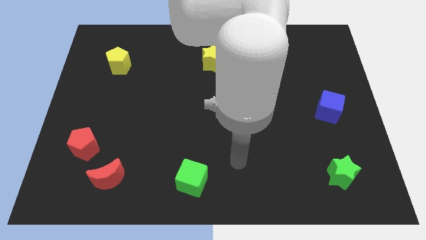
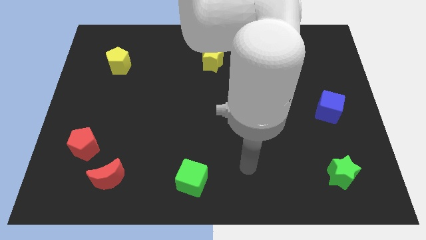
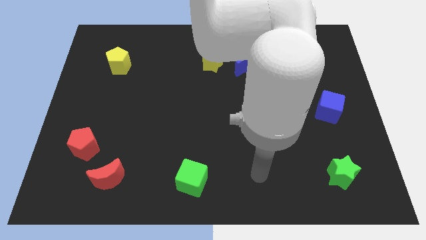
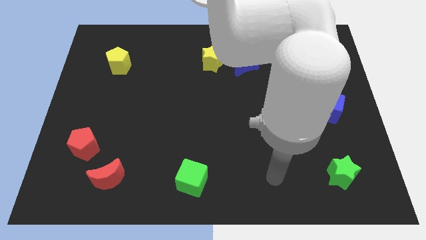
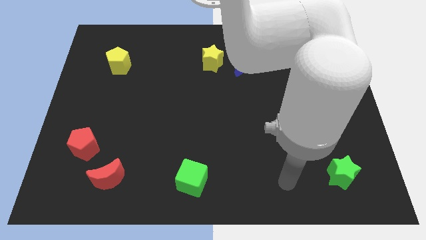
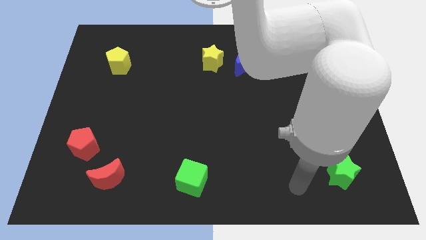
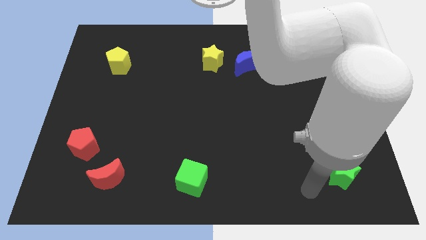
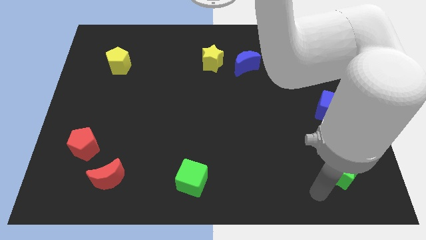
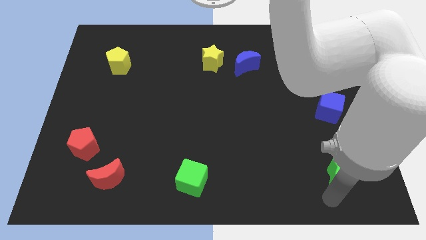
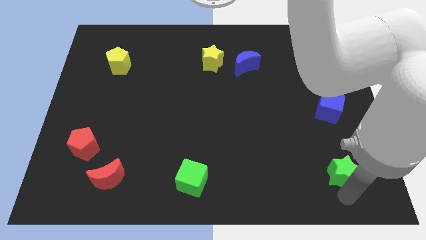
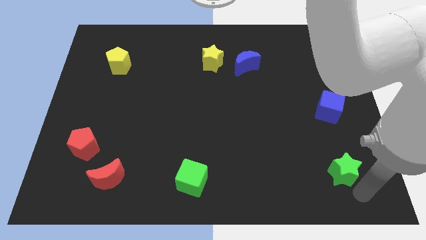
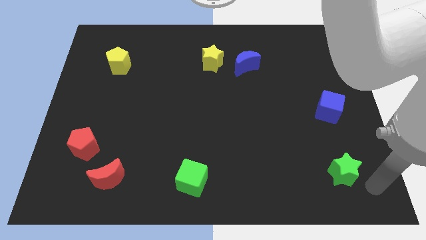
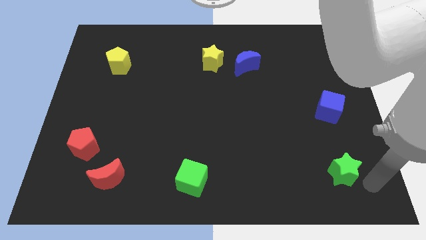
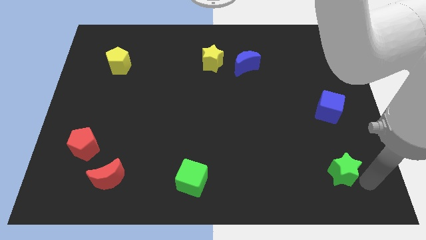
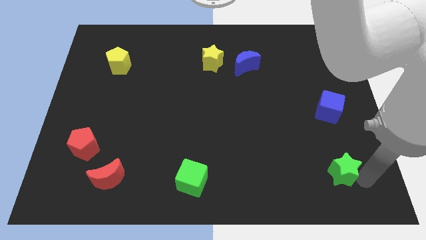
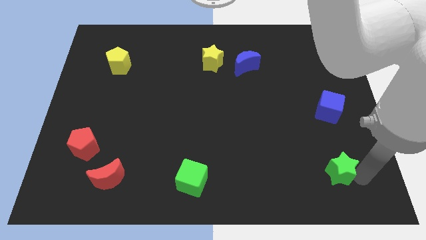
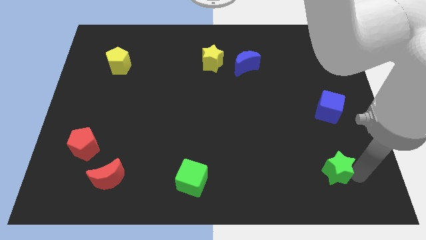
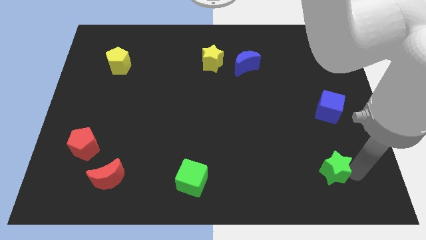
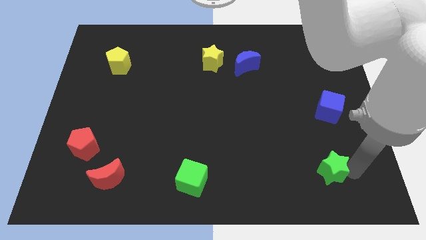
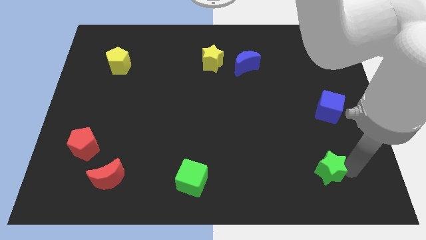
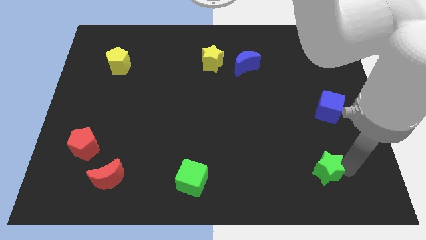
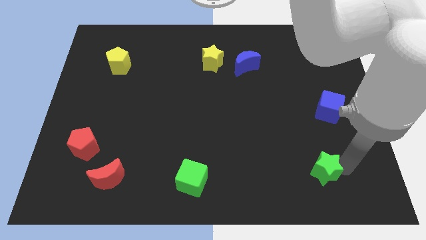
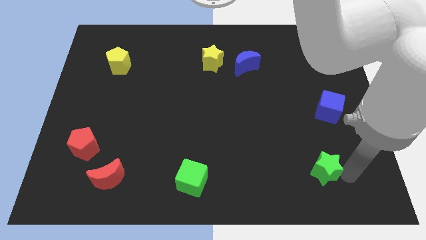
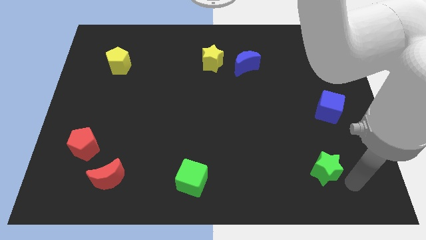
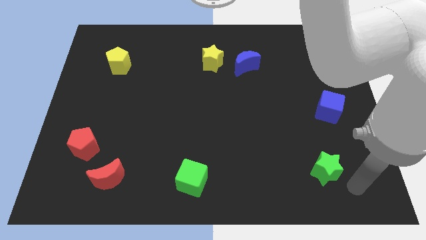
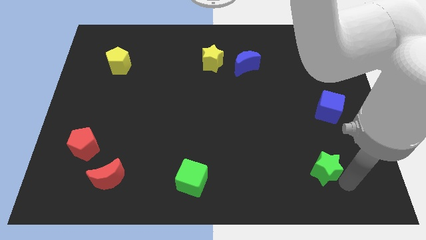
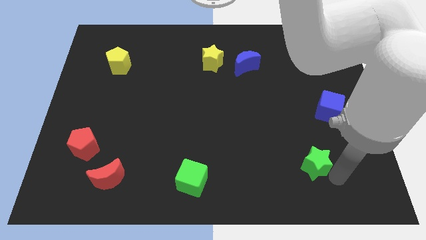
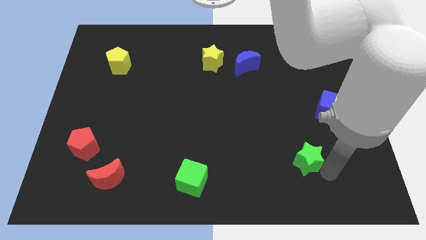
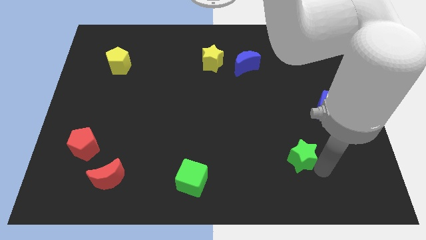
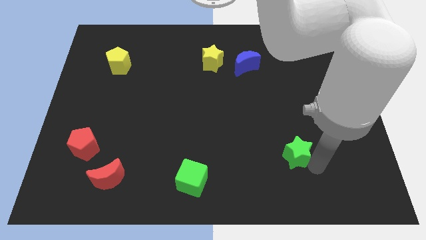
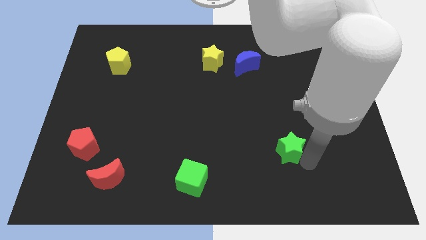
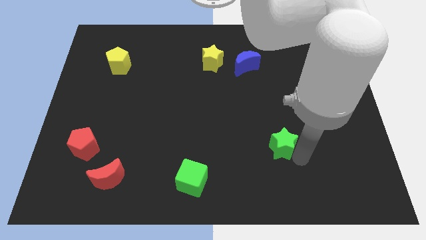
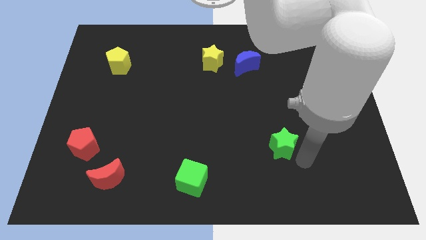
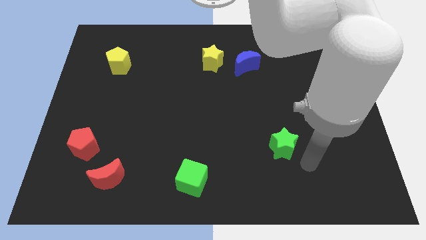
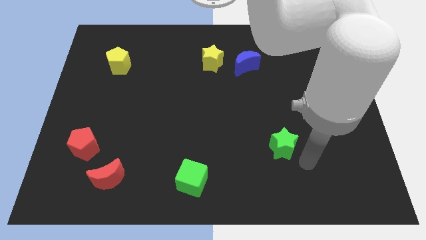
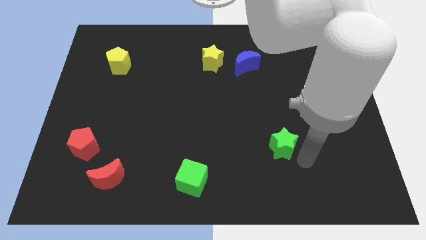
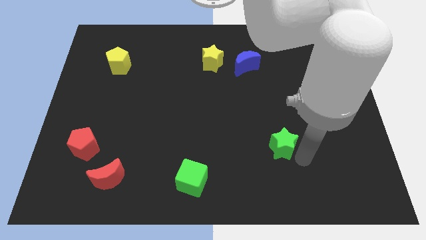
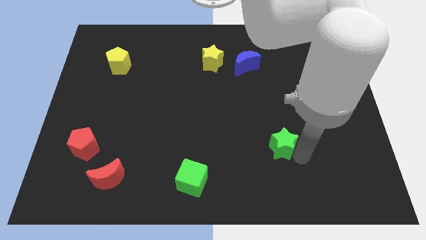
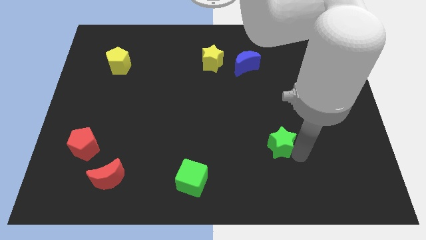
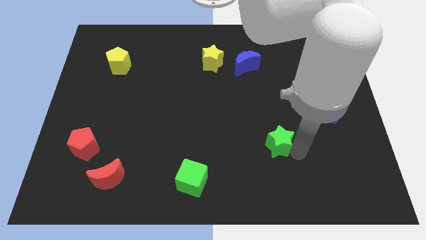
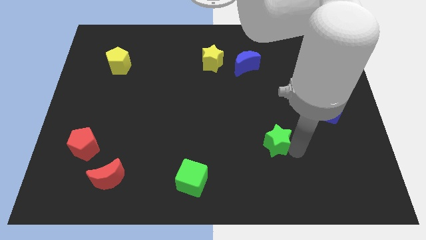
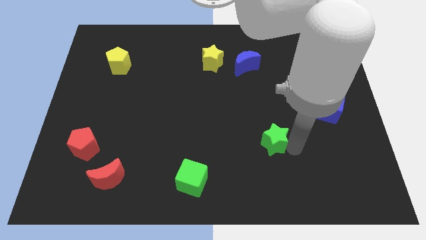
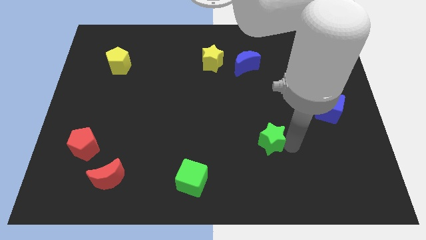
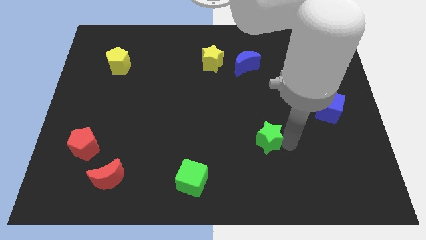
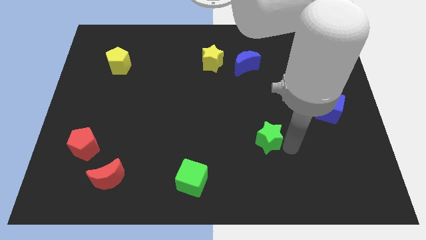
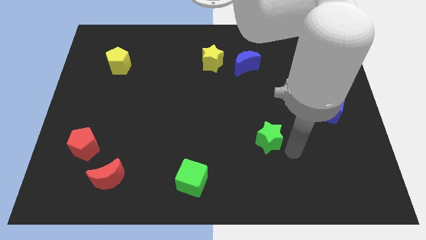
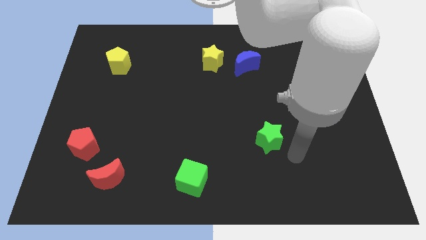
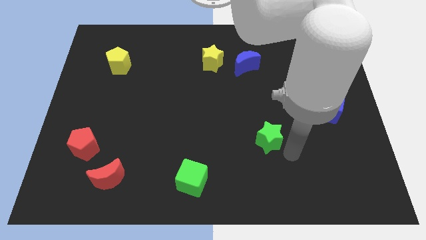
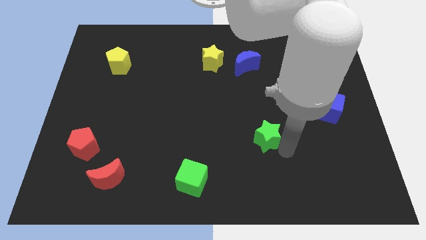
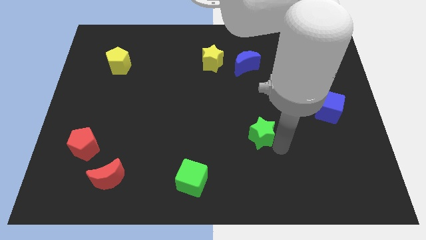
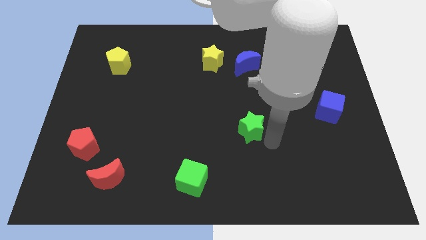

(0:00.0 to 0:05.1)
slide the green star to the center of the board

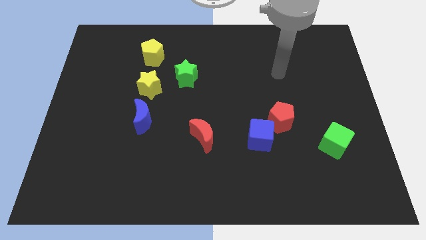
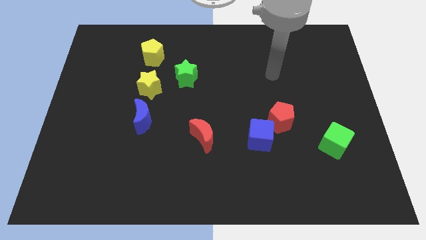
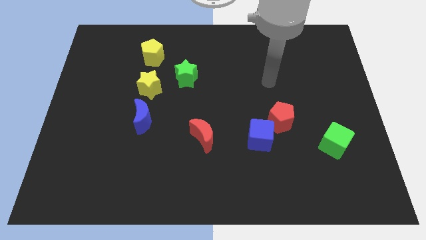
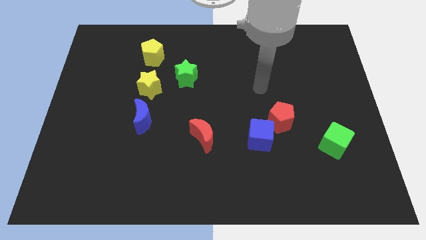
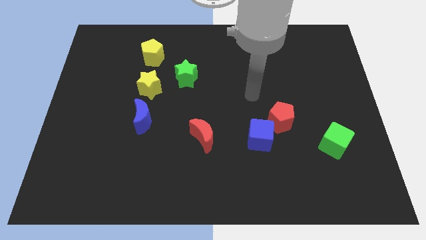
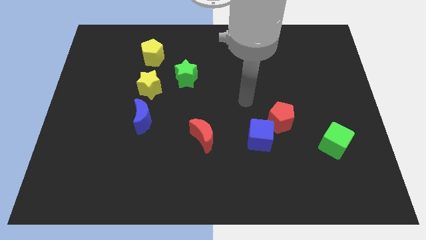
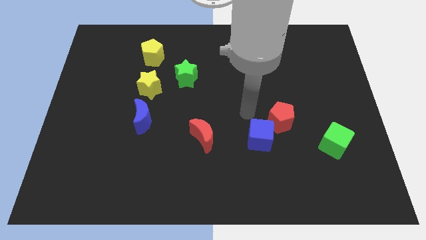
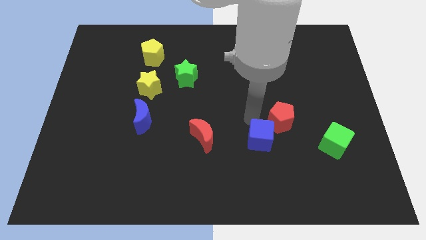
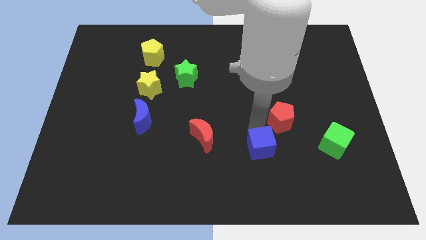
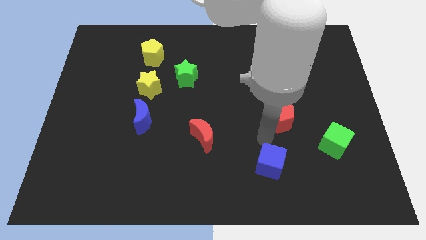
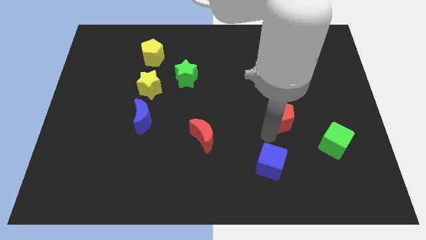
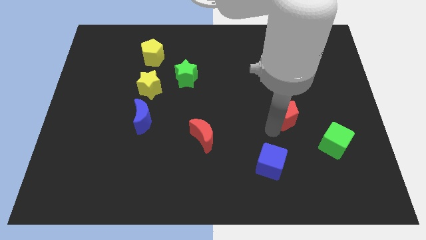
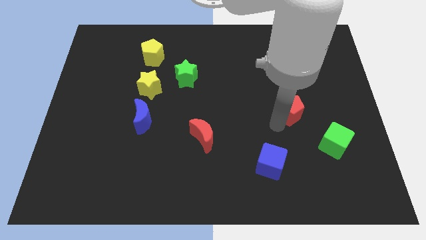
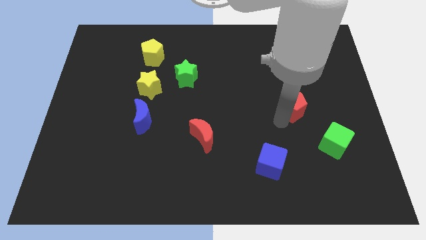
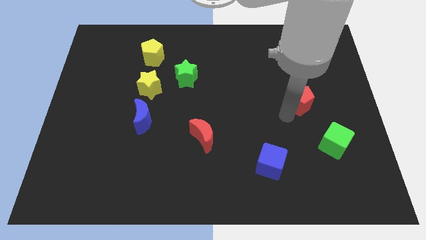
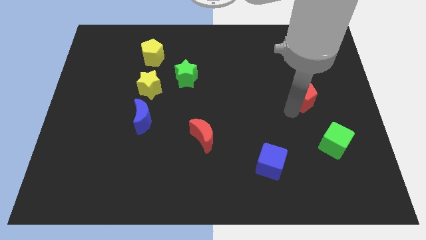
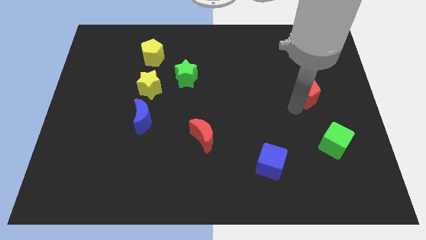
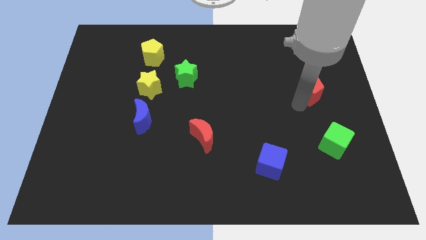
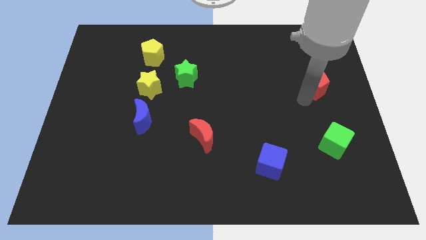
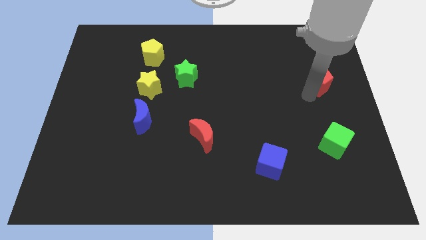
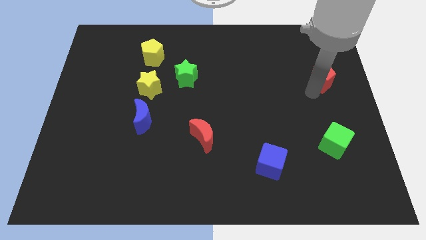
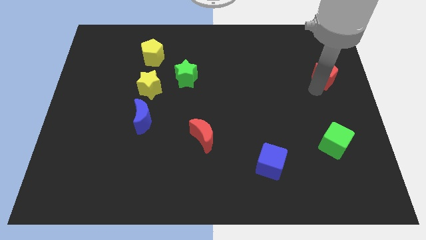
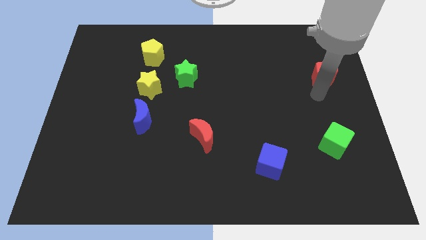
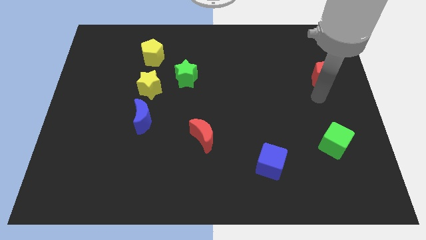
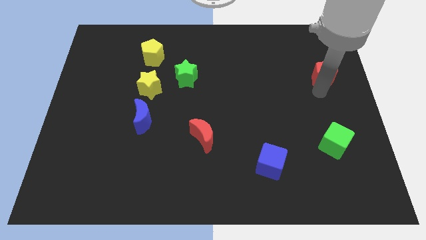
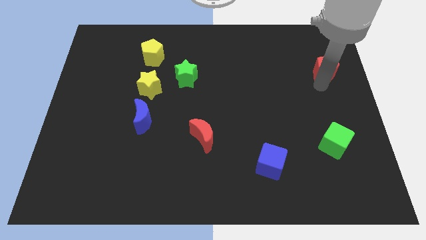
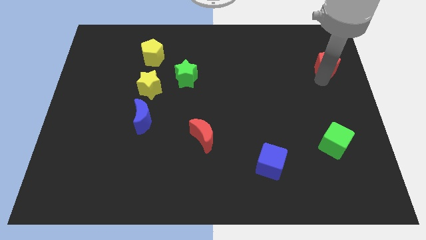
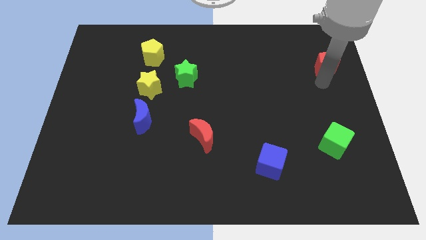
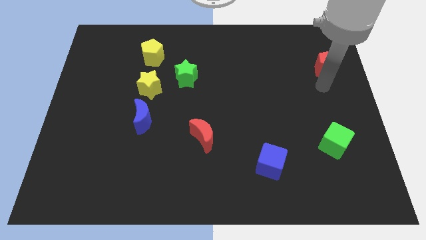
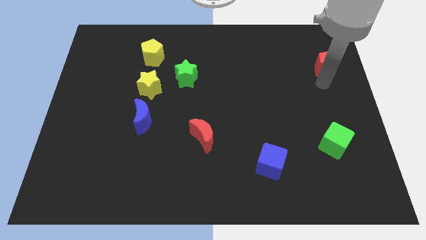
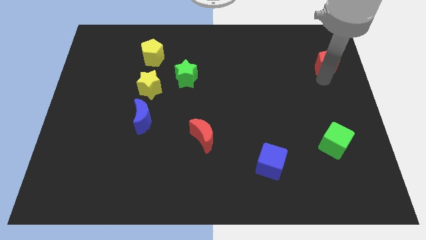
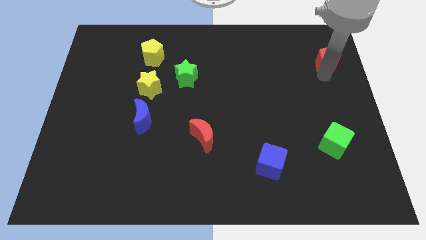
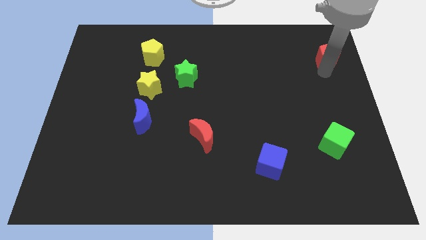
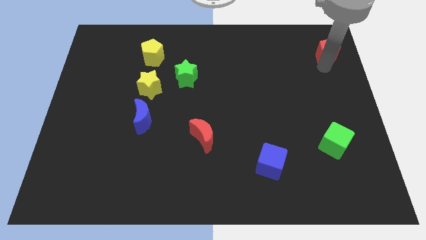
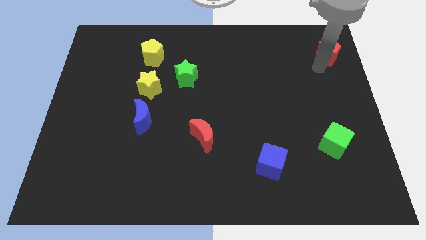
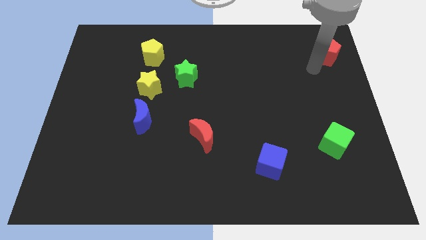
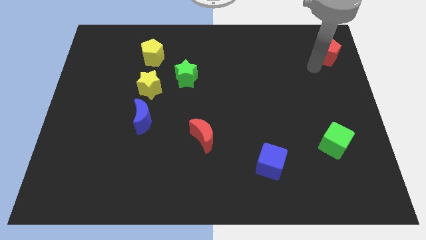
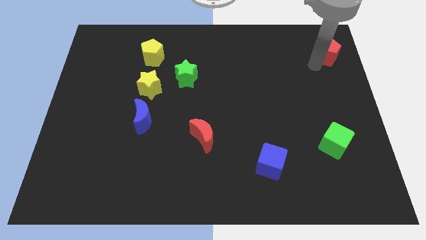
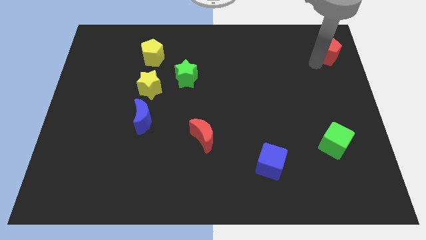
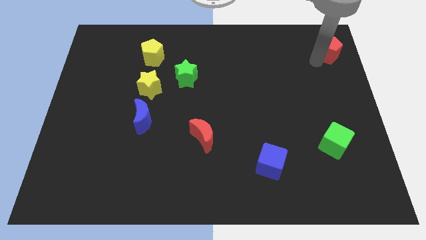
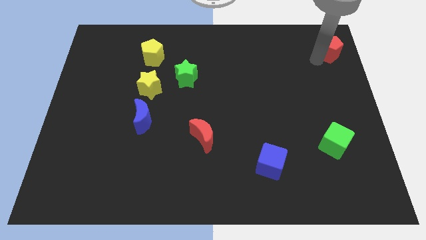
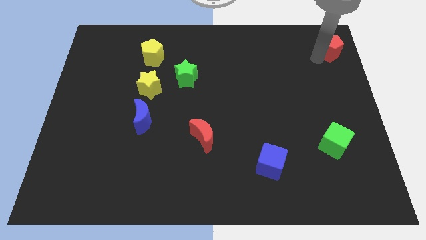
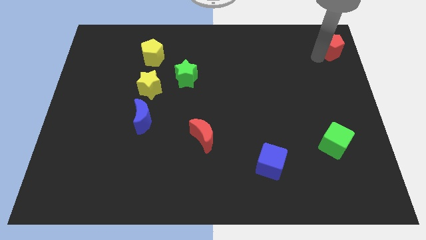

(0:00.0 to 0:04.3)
push the red pentagon to the top right
